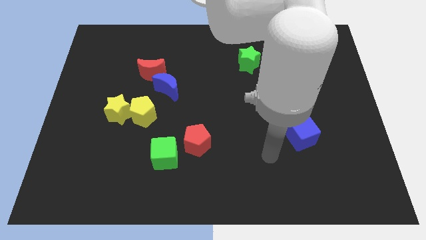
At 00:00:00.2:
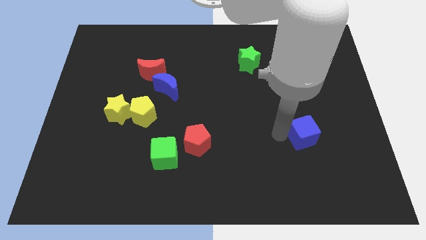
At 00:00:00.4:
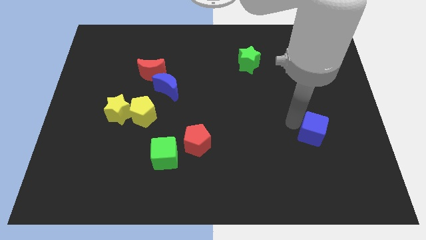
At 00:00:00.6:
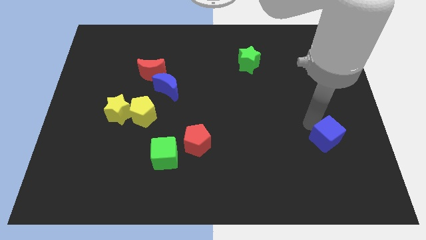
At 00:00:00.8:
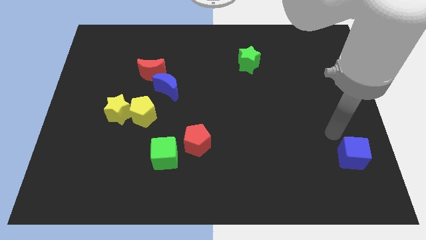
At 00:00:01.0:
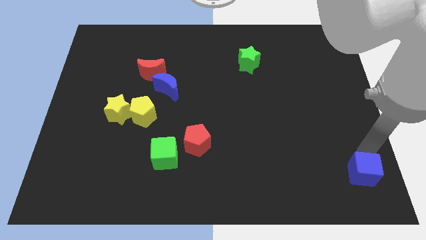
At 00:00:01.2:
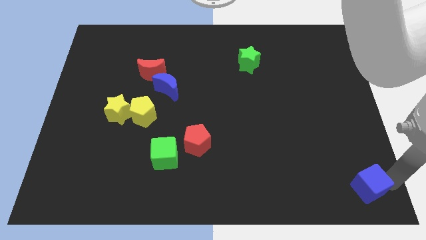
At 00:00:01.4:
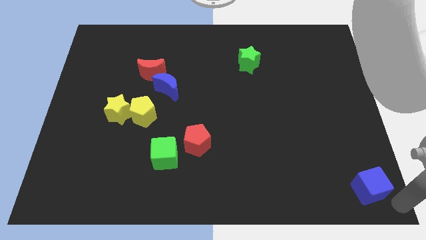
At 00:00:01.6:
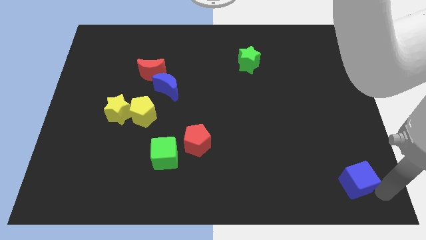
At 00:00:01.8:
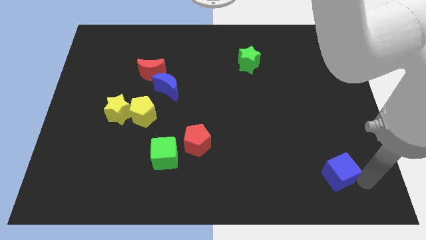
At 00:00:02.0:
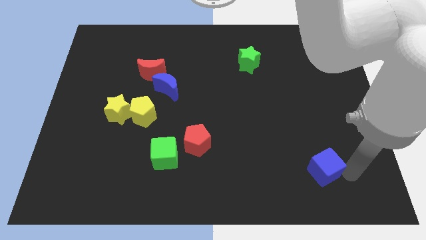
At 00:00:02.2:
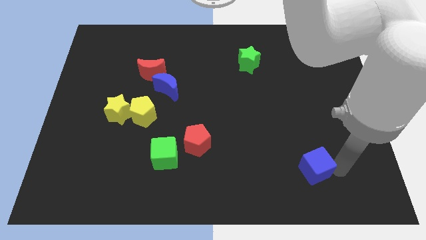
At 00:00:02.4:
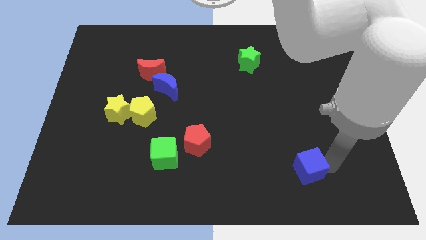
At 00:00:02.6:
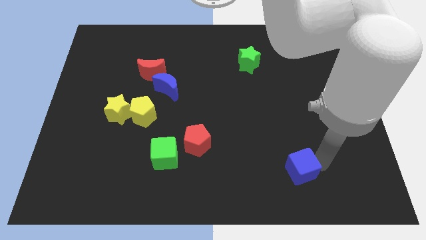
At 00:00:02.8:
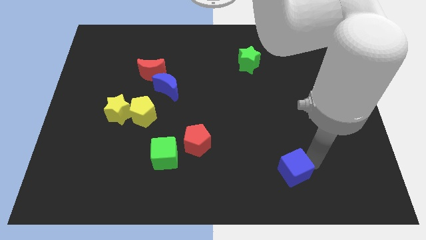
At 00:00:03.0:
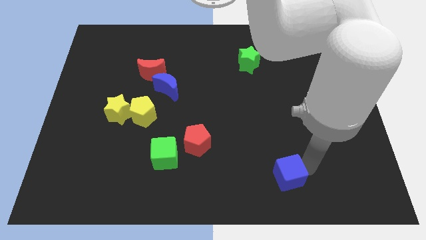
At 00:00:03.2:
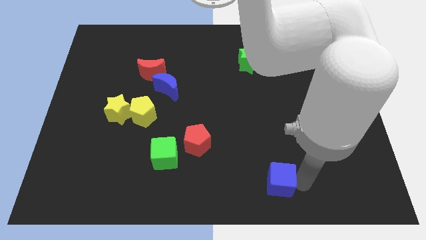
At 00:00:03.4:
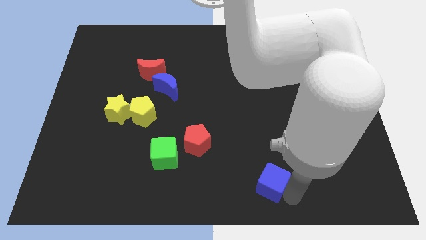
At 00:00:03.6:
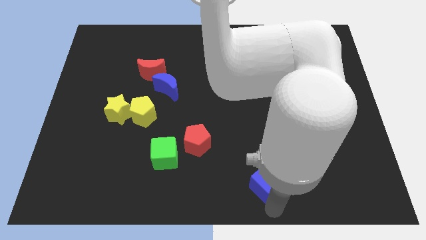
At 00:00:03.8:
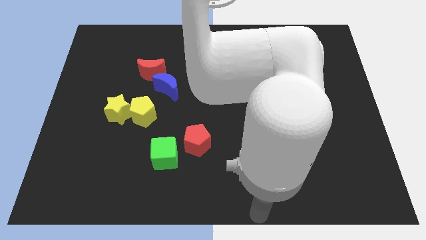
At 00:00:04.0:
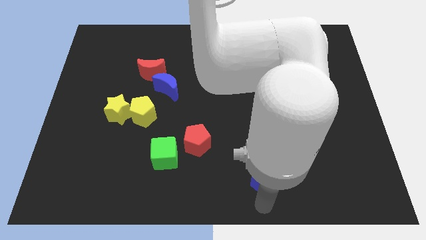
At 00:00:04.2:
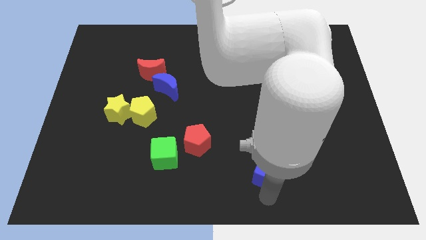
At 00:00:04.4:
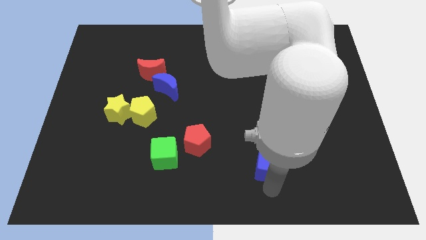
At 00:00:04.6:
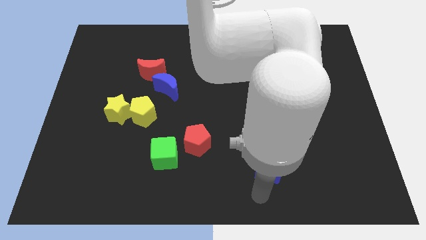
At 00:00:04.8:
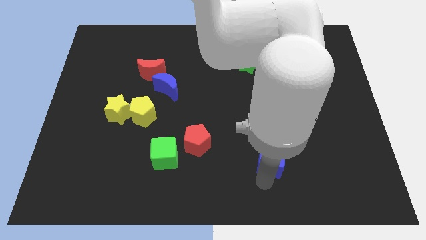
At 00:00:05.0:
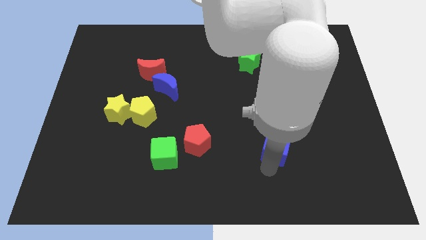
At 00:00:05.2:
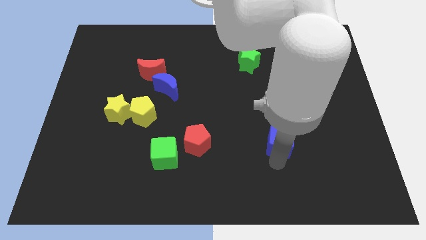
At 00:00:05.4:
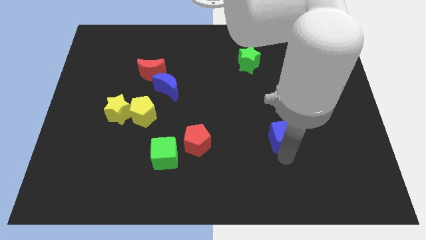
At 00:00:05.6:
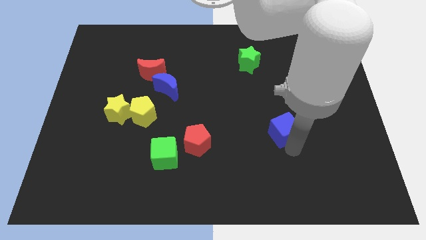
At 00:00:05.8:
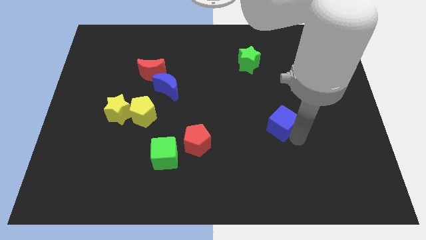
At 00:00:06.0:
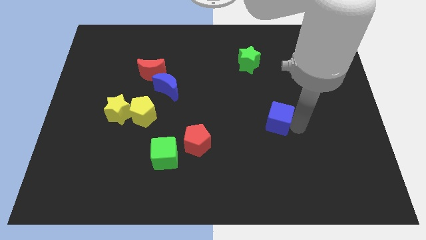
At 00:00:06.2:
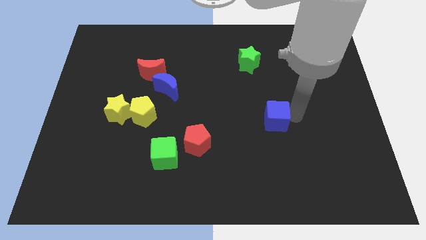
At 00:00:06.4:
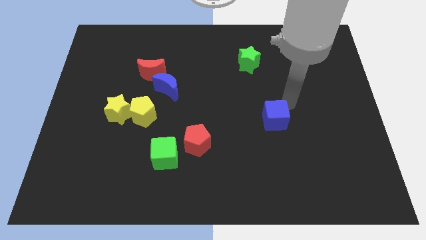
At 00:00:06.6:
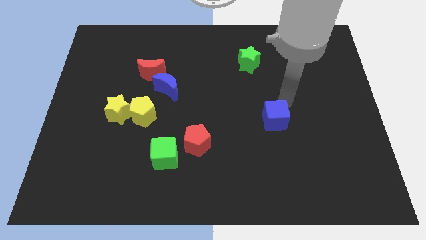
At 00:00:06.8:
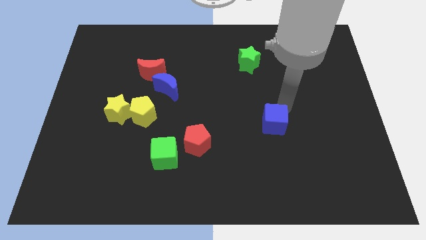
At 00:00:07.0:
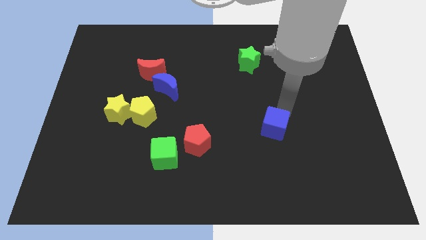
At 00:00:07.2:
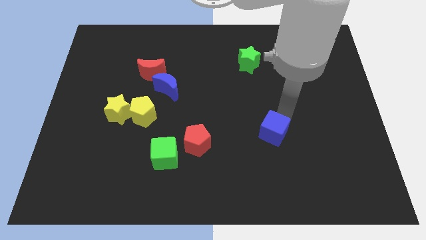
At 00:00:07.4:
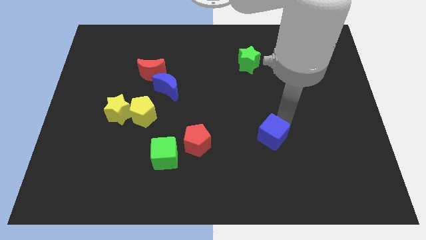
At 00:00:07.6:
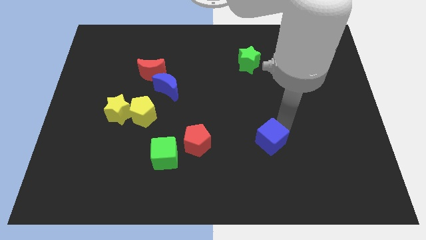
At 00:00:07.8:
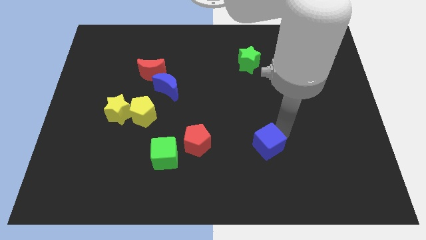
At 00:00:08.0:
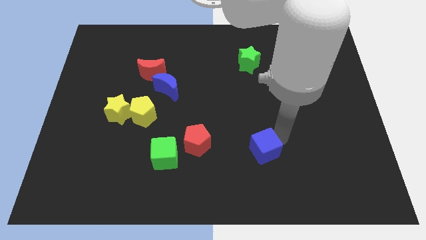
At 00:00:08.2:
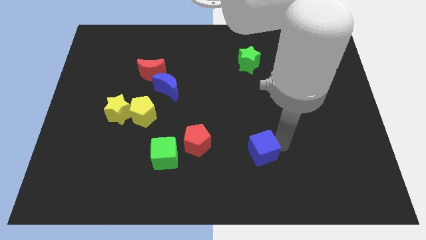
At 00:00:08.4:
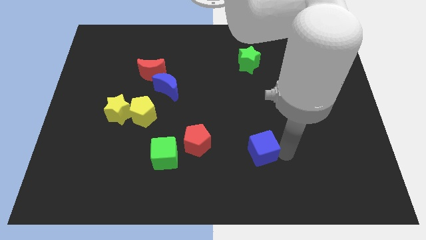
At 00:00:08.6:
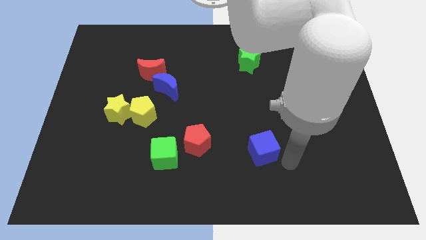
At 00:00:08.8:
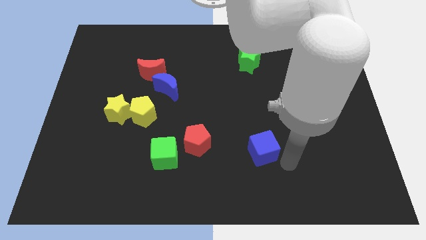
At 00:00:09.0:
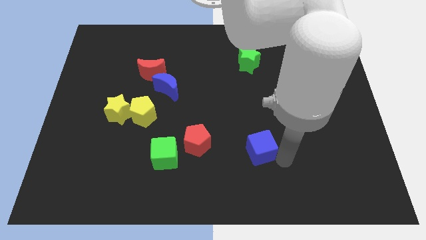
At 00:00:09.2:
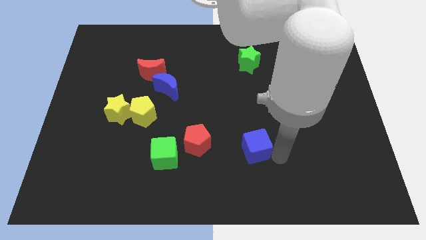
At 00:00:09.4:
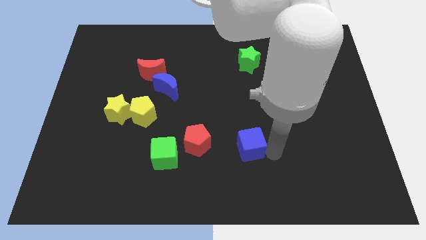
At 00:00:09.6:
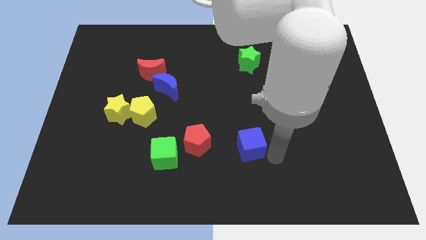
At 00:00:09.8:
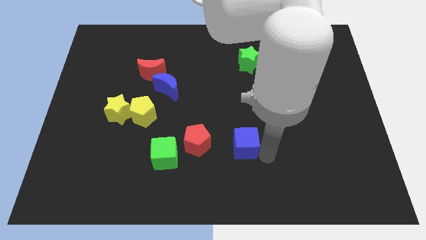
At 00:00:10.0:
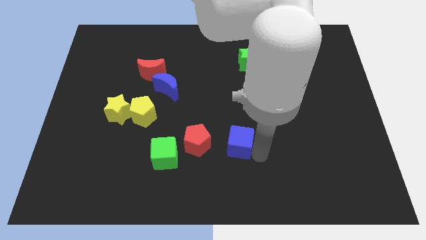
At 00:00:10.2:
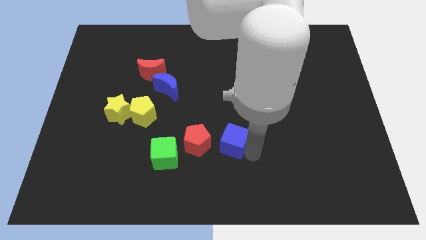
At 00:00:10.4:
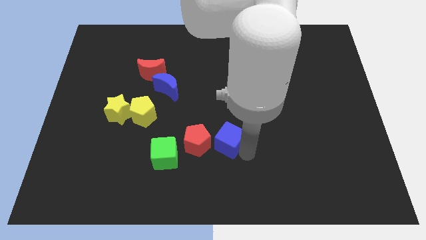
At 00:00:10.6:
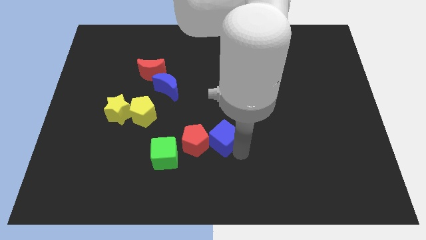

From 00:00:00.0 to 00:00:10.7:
slide the blue cube close to the red pentagon

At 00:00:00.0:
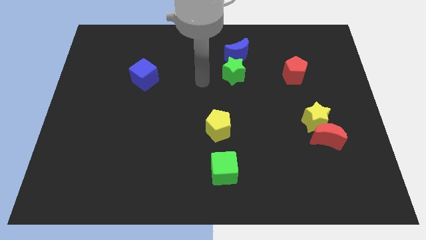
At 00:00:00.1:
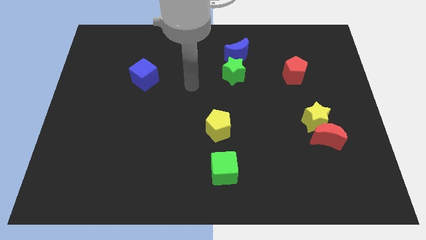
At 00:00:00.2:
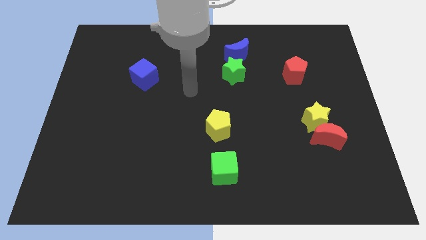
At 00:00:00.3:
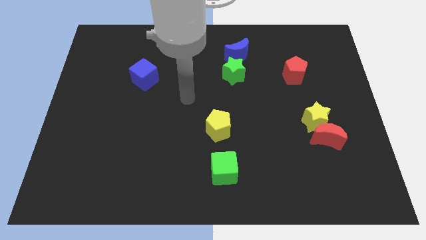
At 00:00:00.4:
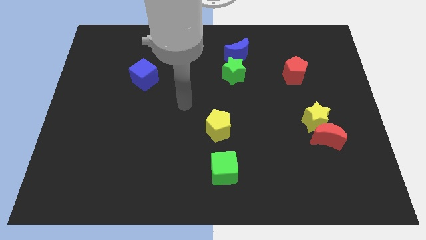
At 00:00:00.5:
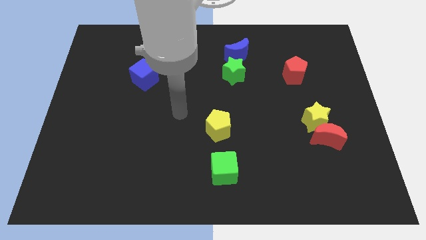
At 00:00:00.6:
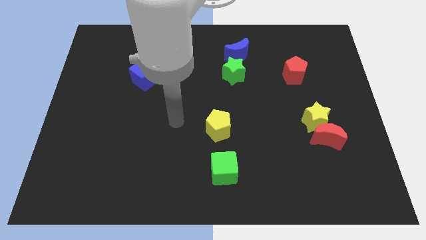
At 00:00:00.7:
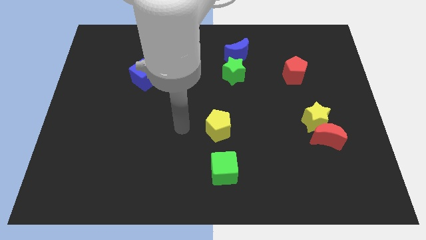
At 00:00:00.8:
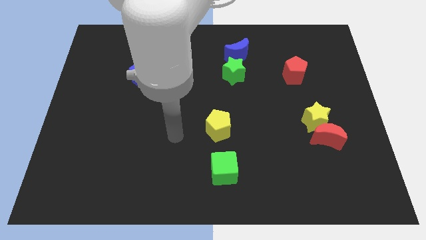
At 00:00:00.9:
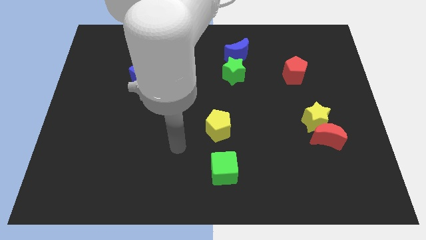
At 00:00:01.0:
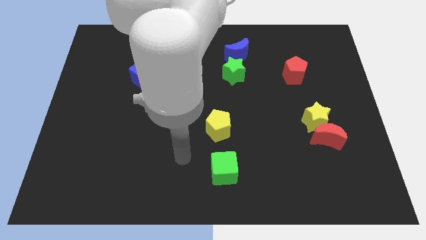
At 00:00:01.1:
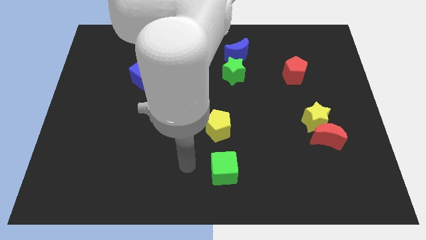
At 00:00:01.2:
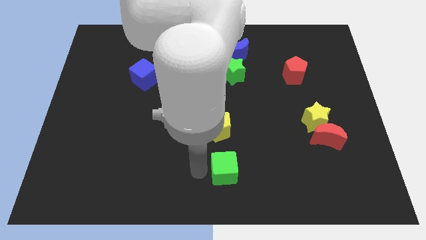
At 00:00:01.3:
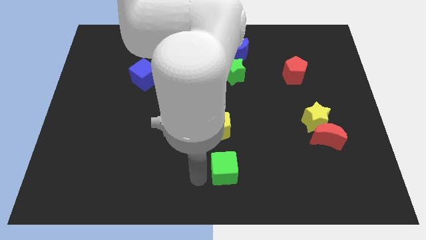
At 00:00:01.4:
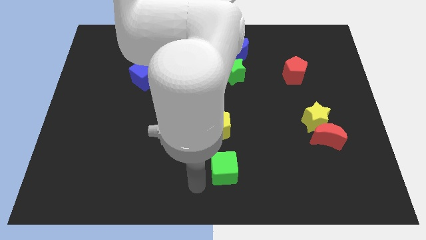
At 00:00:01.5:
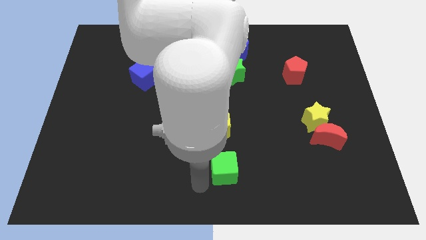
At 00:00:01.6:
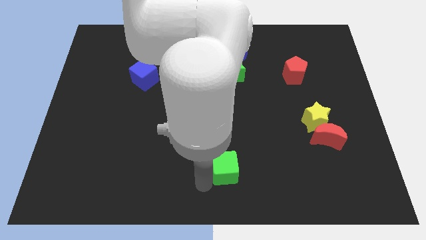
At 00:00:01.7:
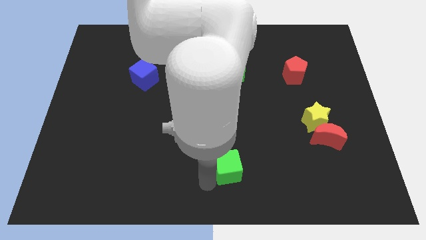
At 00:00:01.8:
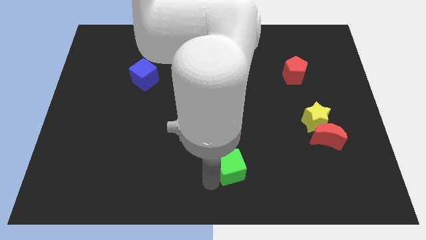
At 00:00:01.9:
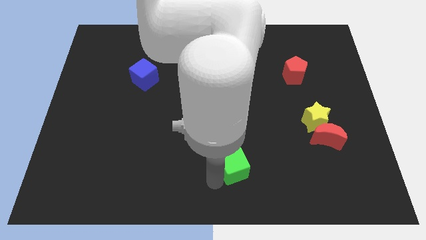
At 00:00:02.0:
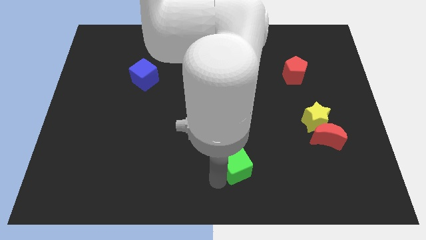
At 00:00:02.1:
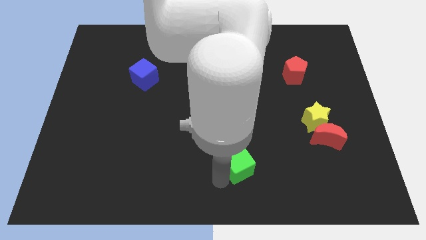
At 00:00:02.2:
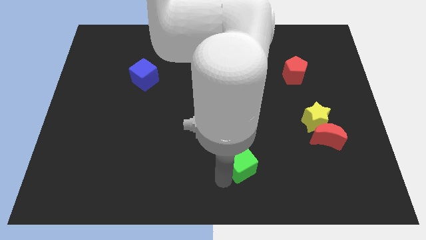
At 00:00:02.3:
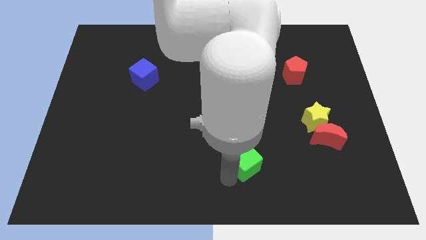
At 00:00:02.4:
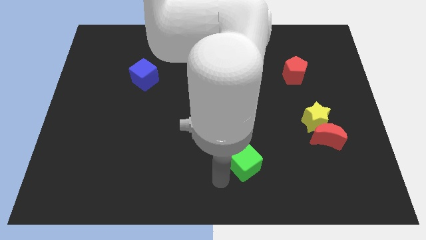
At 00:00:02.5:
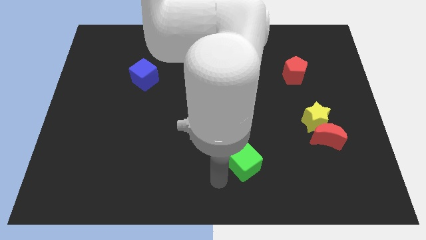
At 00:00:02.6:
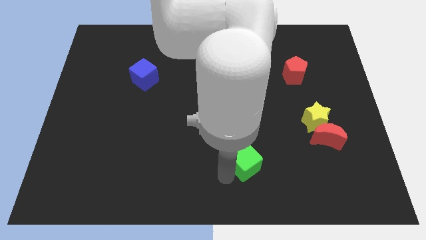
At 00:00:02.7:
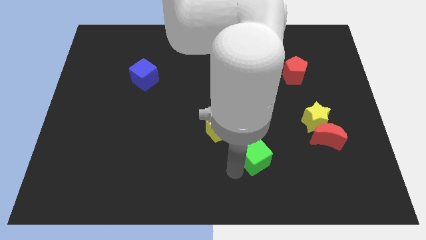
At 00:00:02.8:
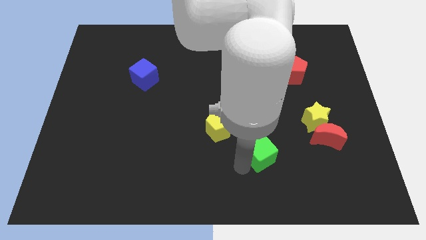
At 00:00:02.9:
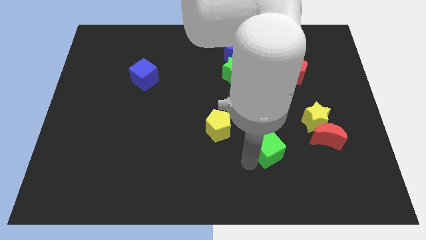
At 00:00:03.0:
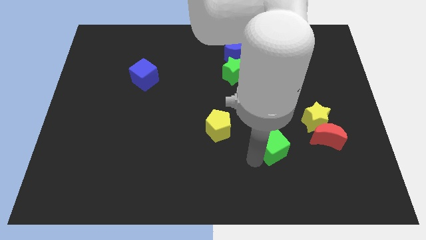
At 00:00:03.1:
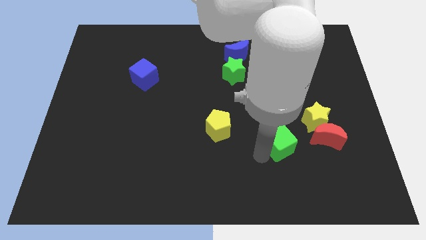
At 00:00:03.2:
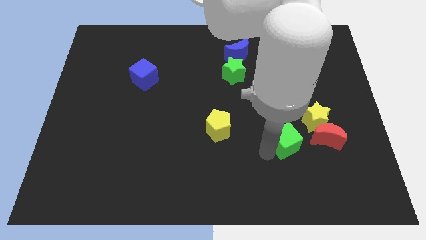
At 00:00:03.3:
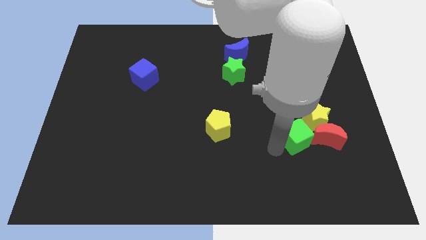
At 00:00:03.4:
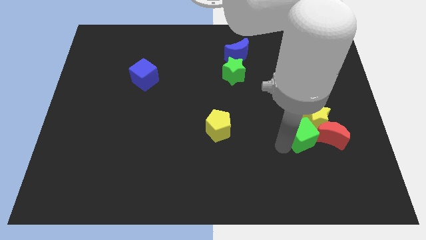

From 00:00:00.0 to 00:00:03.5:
move the green cube towards the yellow star
